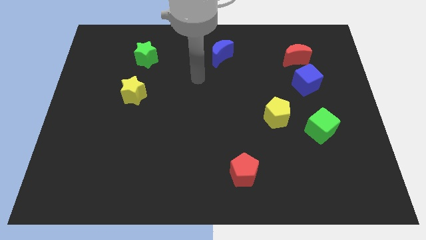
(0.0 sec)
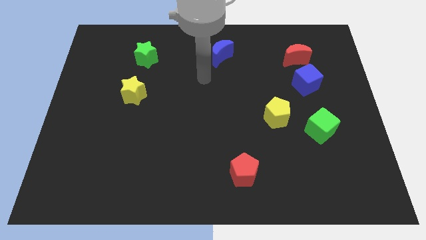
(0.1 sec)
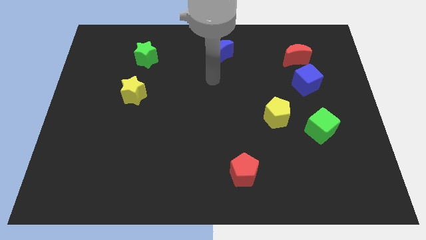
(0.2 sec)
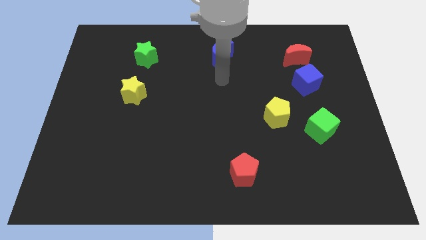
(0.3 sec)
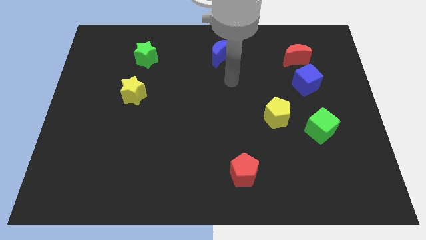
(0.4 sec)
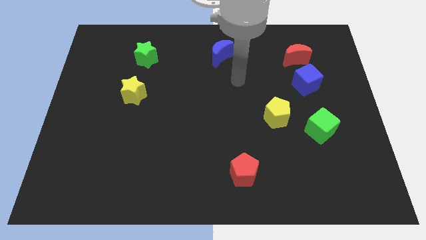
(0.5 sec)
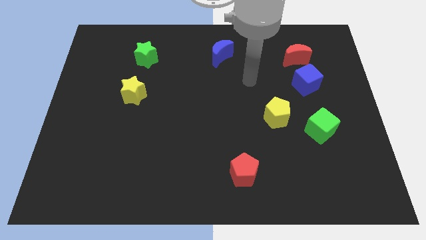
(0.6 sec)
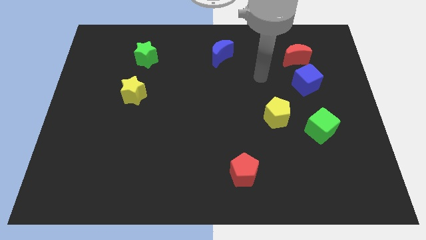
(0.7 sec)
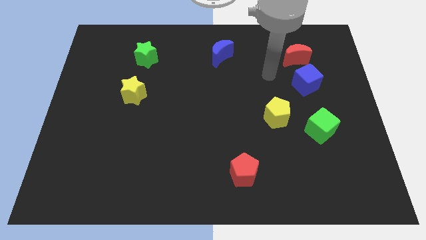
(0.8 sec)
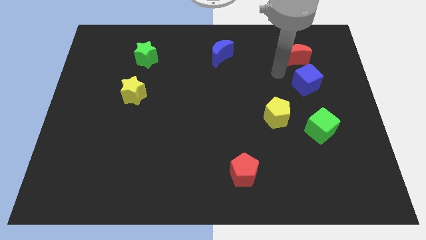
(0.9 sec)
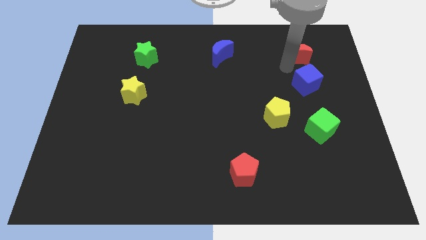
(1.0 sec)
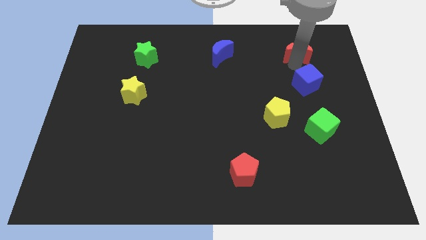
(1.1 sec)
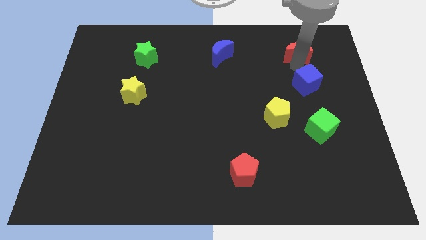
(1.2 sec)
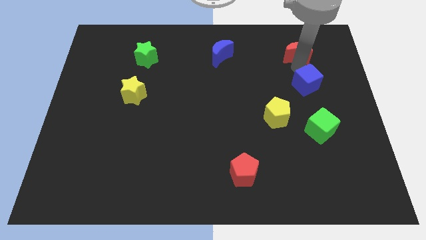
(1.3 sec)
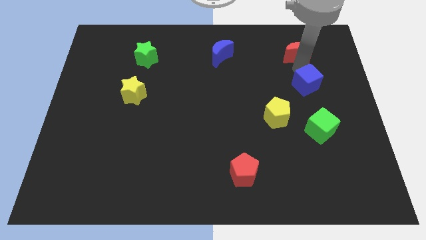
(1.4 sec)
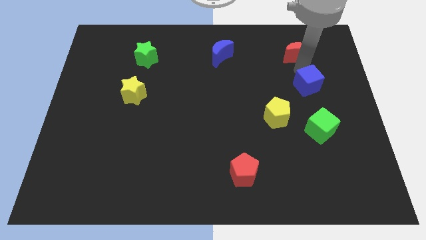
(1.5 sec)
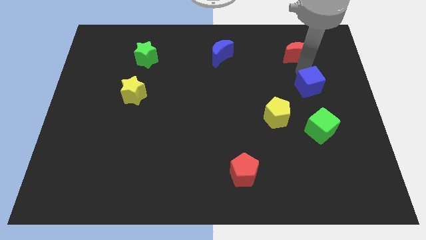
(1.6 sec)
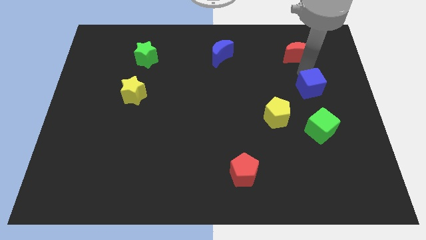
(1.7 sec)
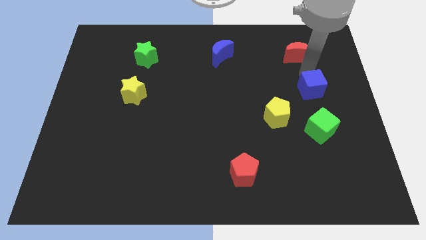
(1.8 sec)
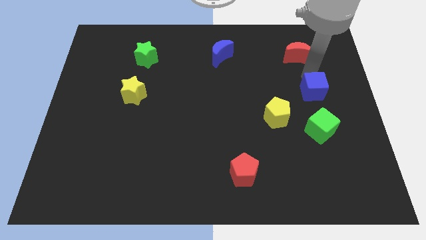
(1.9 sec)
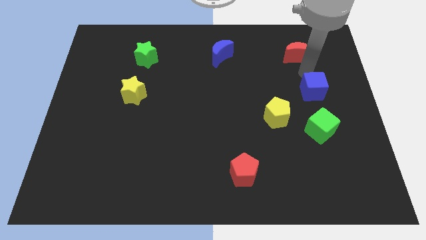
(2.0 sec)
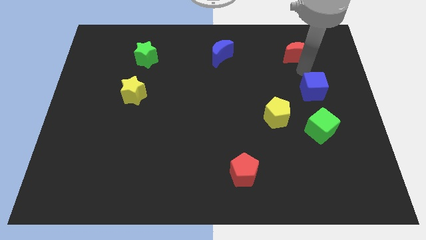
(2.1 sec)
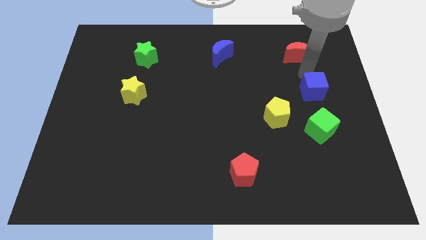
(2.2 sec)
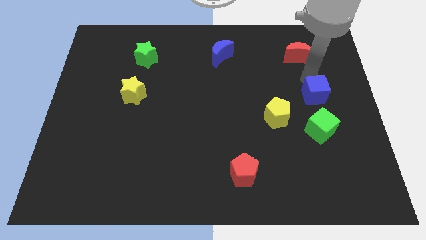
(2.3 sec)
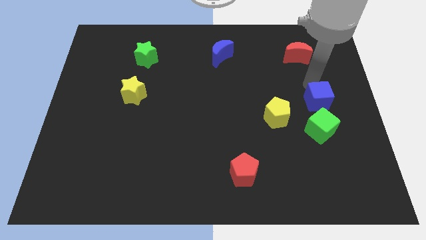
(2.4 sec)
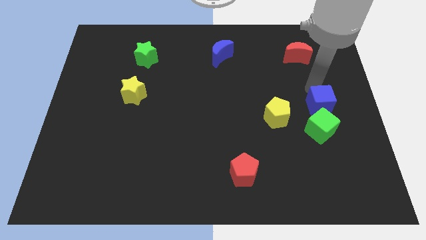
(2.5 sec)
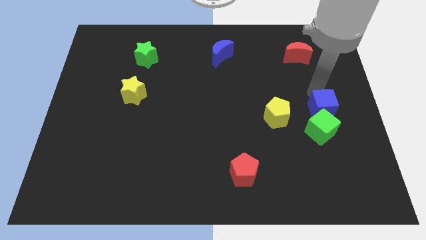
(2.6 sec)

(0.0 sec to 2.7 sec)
slide the blue cube somewhat downwards

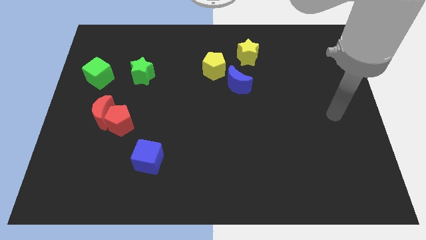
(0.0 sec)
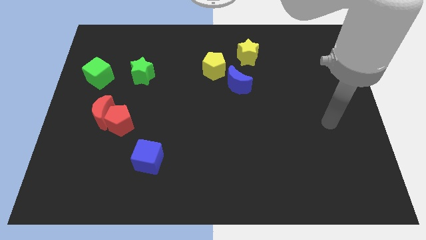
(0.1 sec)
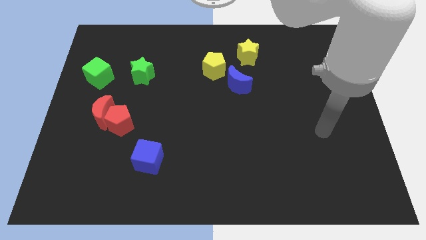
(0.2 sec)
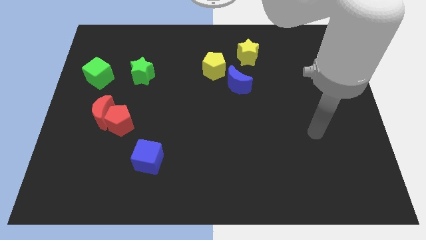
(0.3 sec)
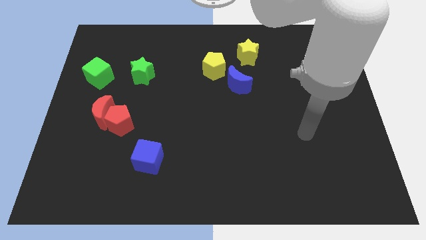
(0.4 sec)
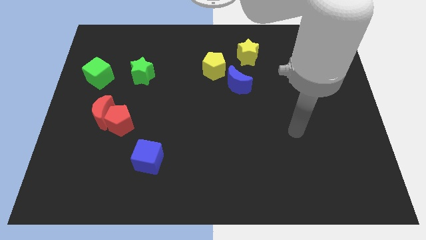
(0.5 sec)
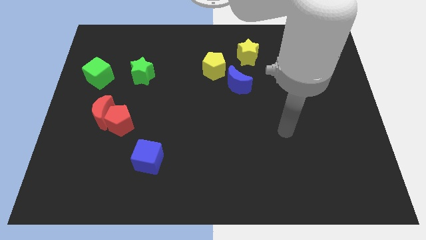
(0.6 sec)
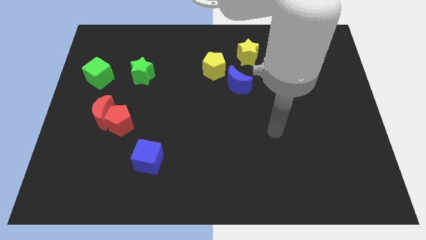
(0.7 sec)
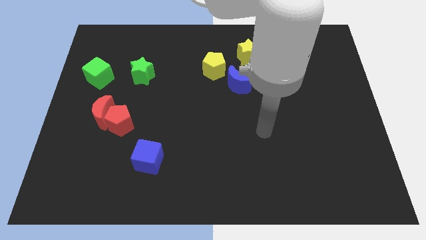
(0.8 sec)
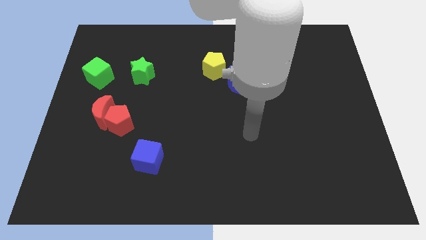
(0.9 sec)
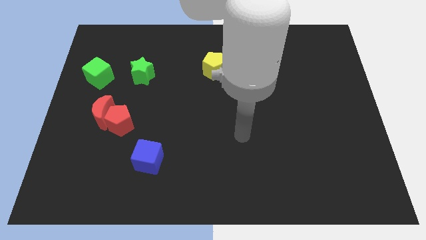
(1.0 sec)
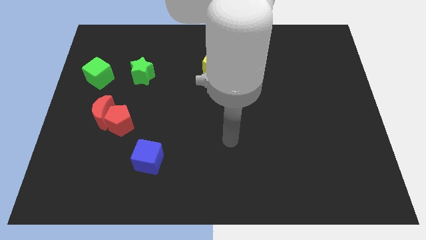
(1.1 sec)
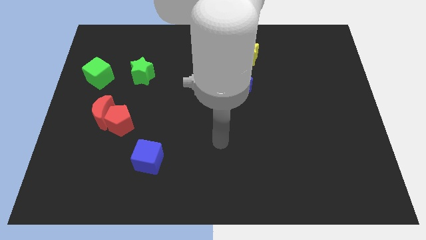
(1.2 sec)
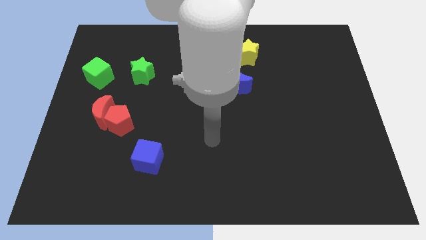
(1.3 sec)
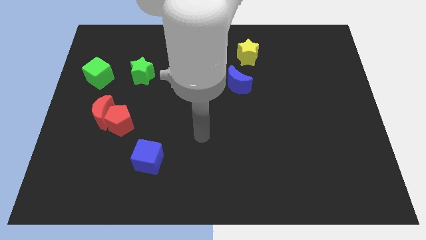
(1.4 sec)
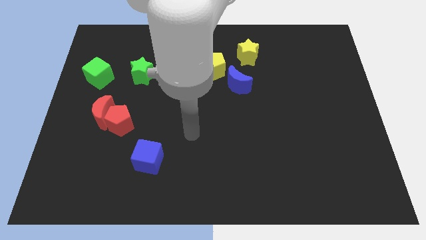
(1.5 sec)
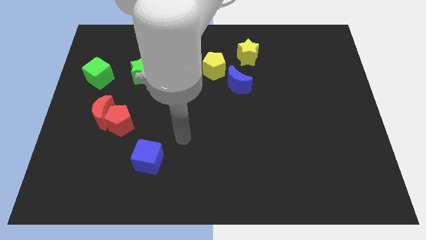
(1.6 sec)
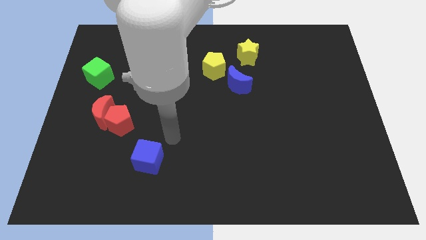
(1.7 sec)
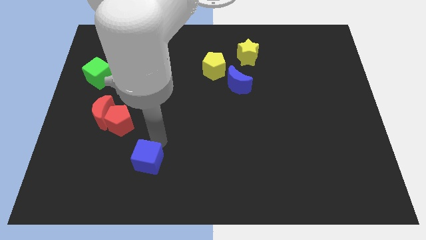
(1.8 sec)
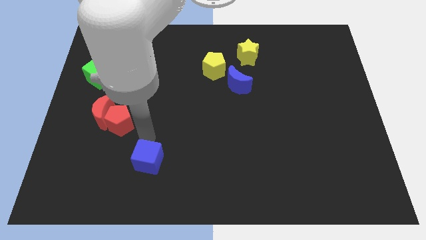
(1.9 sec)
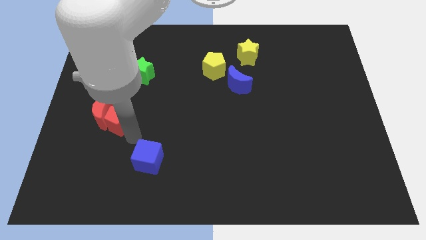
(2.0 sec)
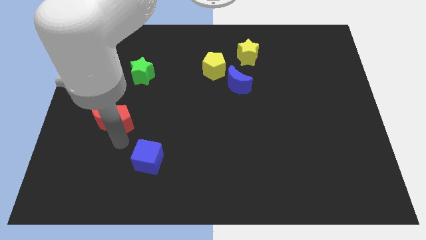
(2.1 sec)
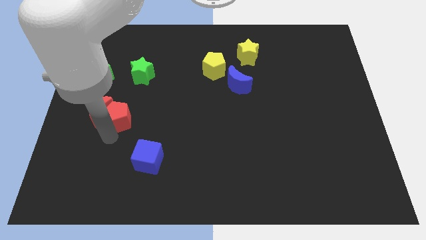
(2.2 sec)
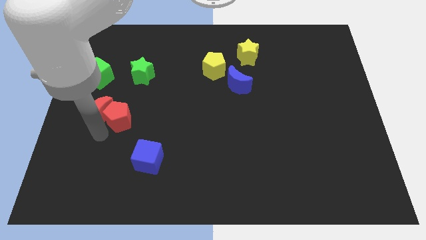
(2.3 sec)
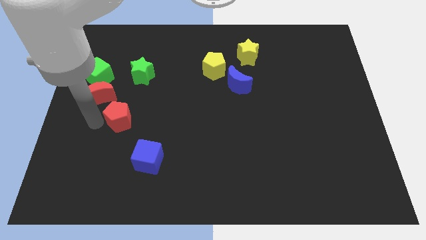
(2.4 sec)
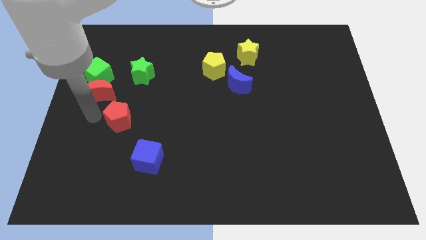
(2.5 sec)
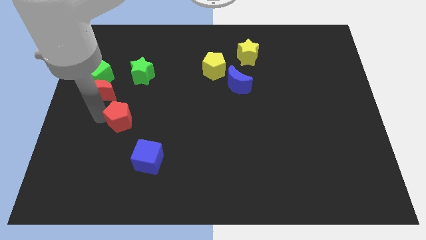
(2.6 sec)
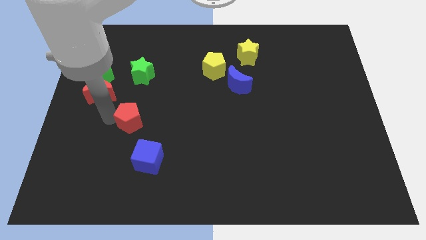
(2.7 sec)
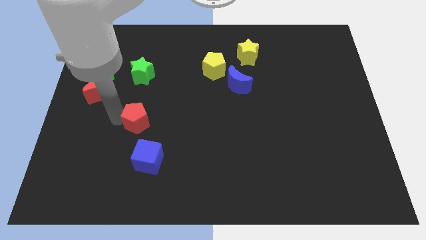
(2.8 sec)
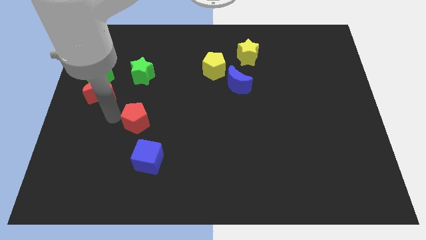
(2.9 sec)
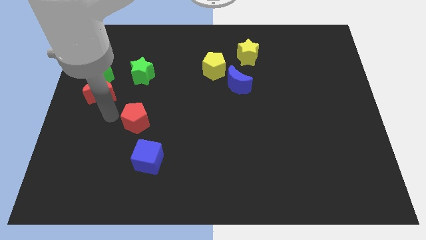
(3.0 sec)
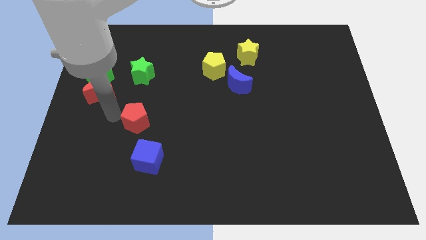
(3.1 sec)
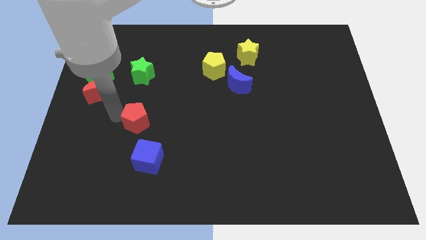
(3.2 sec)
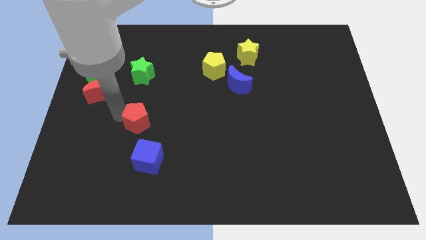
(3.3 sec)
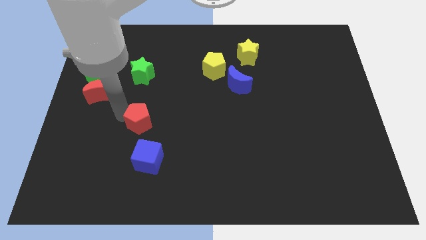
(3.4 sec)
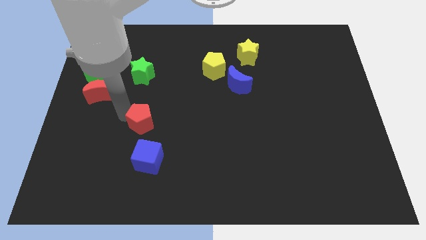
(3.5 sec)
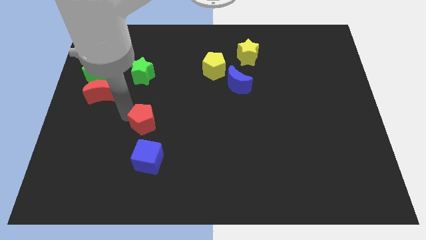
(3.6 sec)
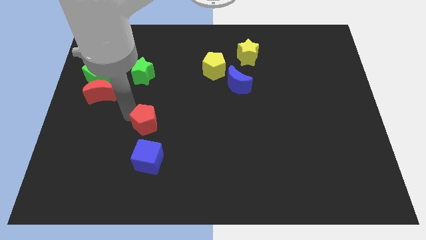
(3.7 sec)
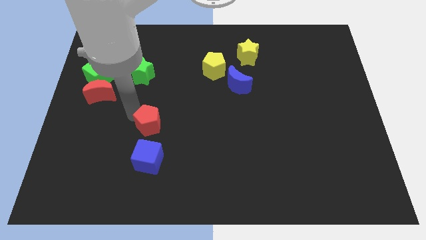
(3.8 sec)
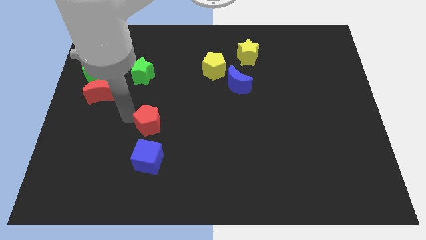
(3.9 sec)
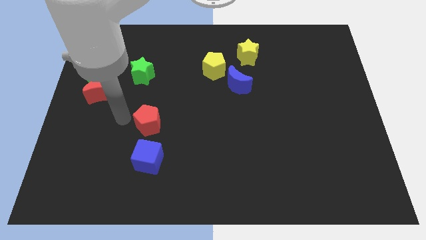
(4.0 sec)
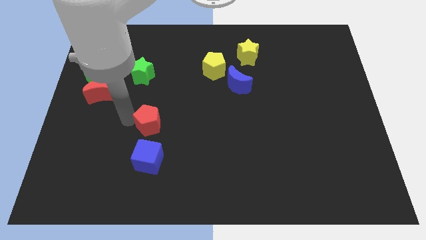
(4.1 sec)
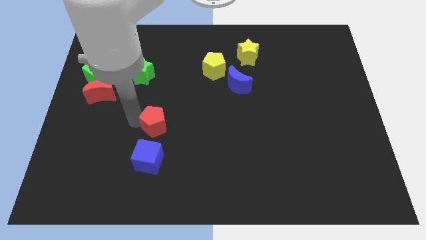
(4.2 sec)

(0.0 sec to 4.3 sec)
move the red pentagon somewhat right

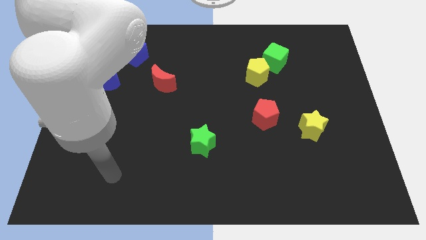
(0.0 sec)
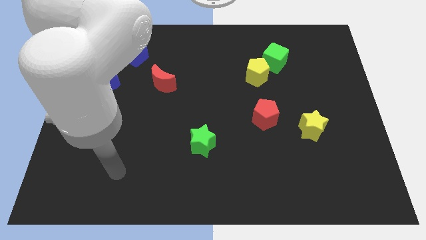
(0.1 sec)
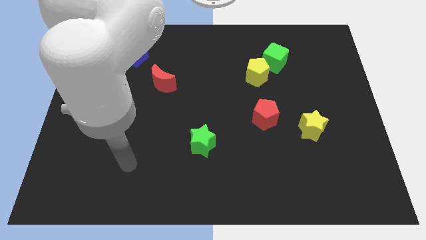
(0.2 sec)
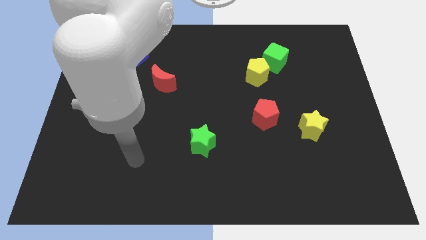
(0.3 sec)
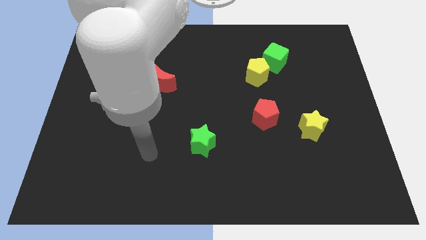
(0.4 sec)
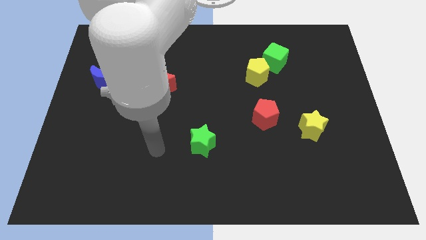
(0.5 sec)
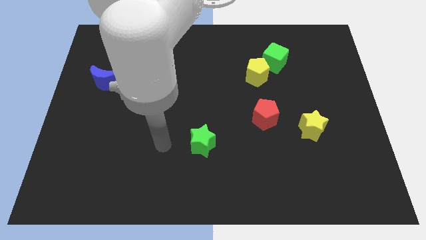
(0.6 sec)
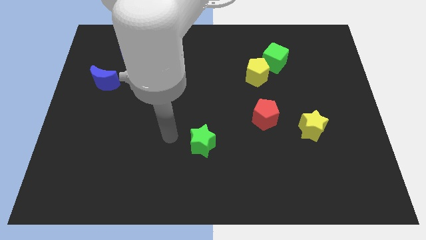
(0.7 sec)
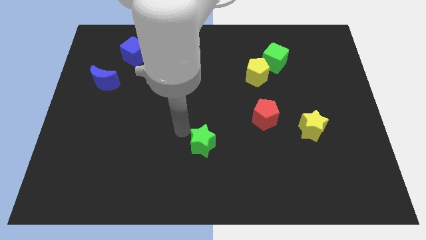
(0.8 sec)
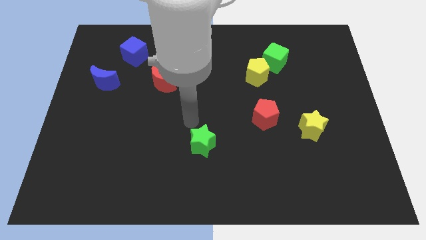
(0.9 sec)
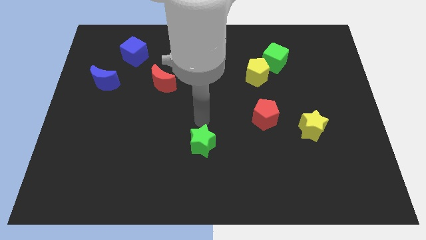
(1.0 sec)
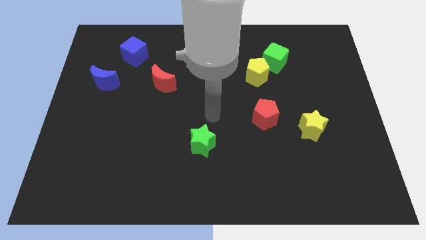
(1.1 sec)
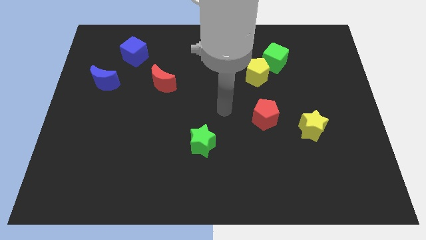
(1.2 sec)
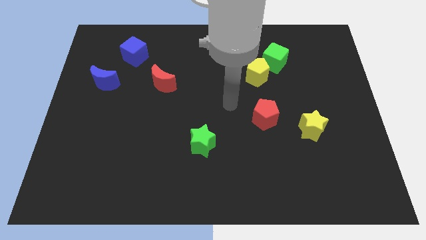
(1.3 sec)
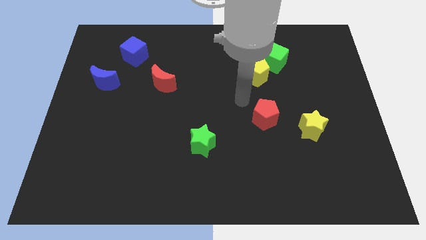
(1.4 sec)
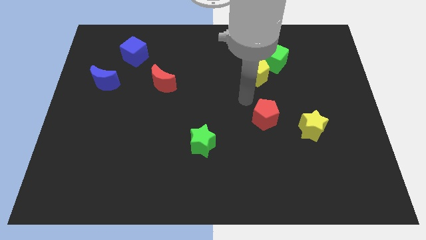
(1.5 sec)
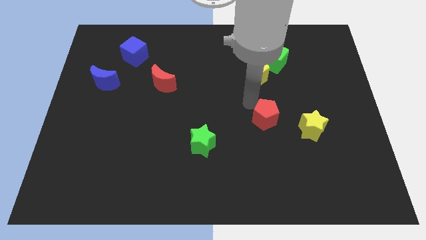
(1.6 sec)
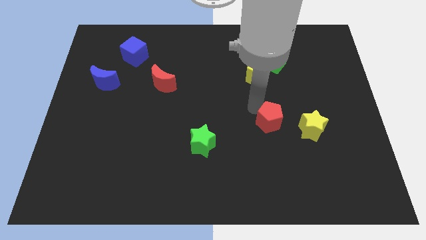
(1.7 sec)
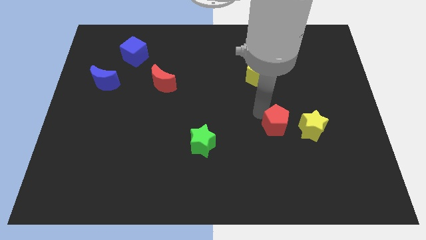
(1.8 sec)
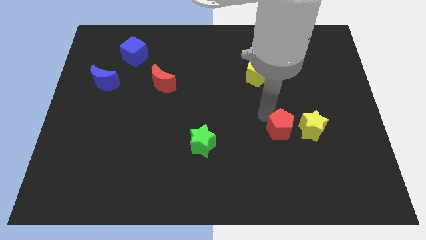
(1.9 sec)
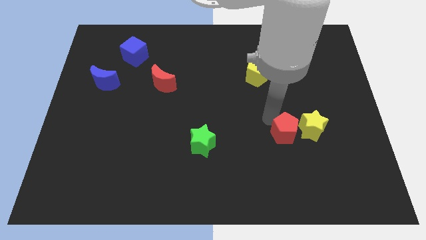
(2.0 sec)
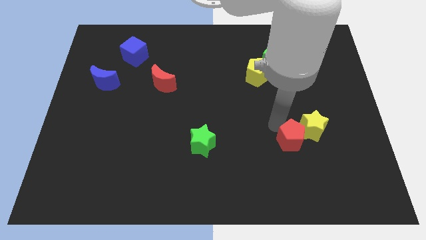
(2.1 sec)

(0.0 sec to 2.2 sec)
push the red pentagon a little downwards and then right
